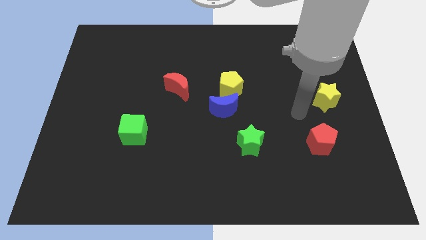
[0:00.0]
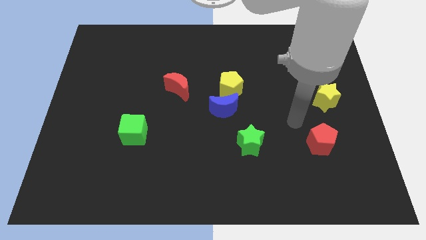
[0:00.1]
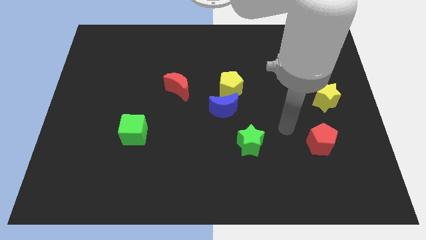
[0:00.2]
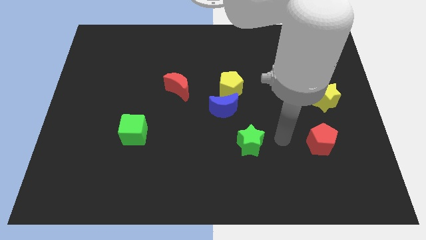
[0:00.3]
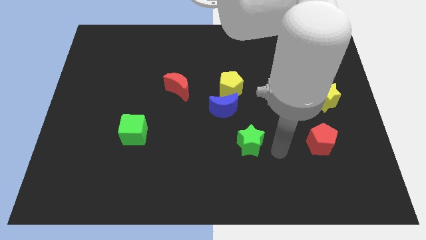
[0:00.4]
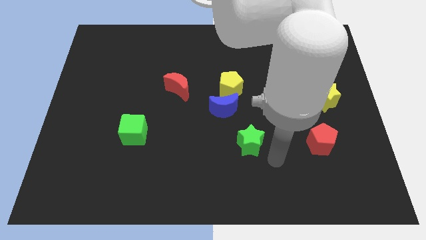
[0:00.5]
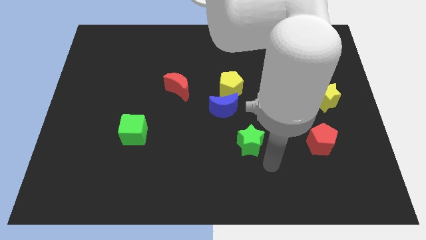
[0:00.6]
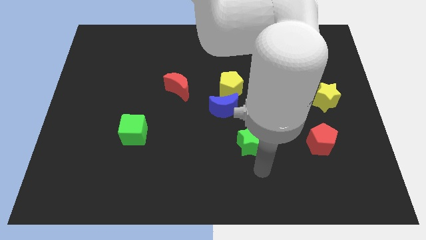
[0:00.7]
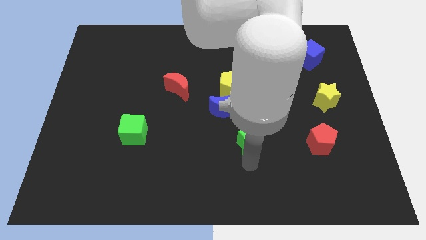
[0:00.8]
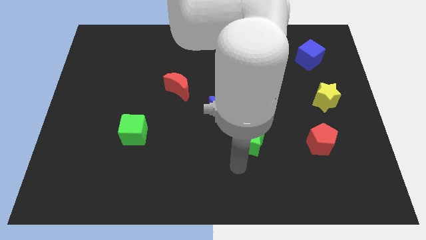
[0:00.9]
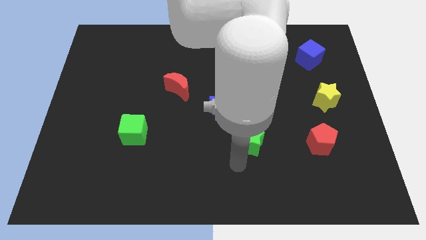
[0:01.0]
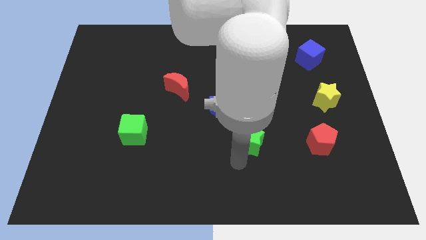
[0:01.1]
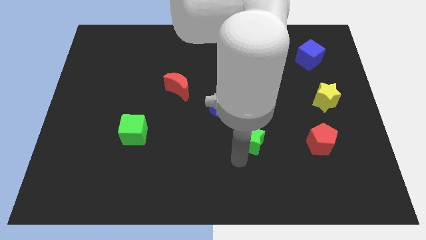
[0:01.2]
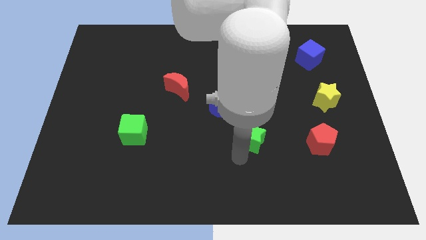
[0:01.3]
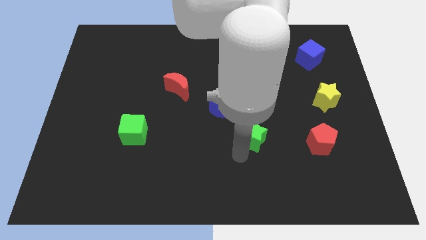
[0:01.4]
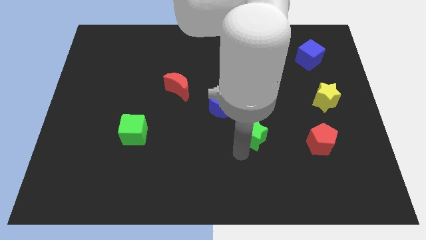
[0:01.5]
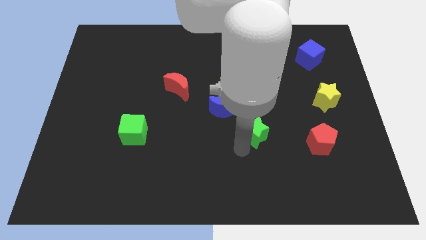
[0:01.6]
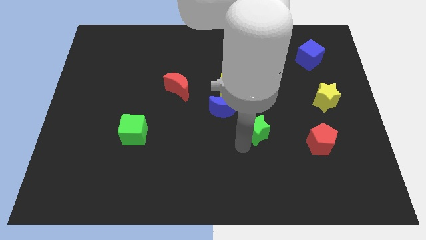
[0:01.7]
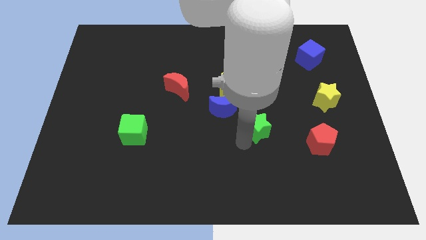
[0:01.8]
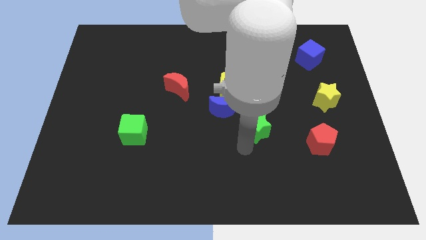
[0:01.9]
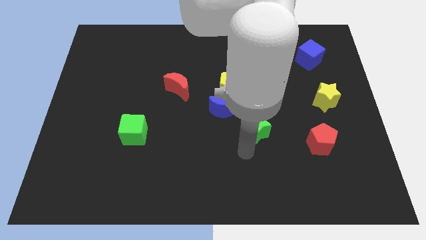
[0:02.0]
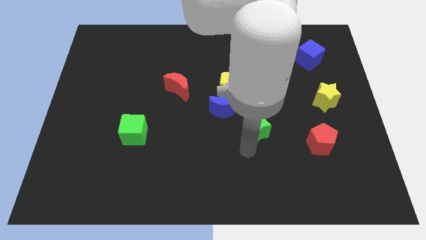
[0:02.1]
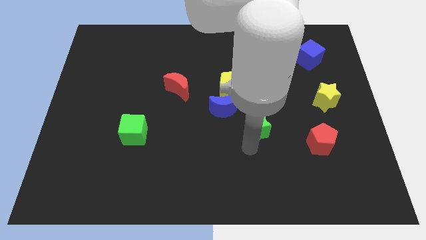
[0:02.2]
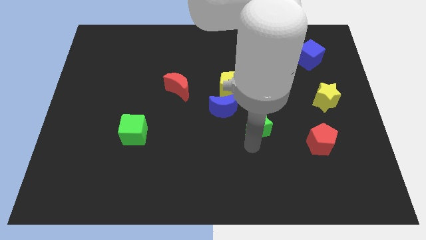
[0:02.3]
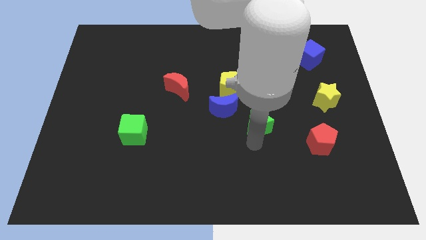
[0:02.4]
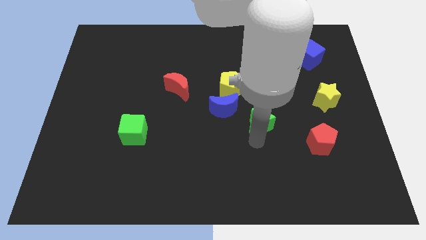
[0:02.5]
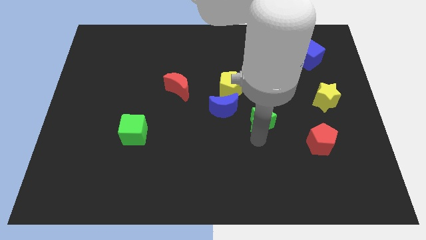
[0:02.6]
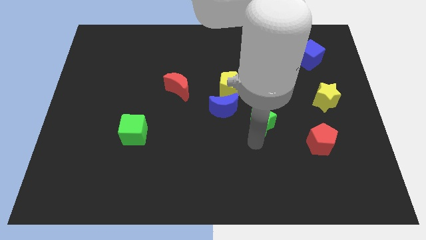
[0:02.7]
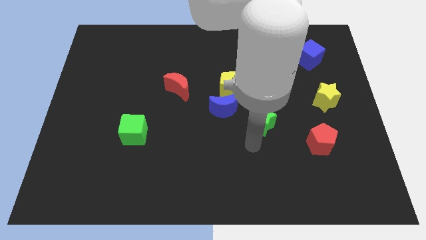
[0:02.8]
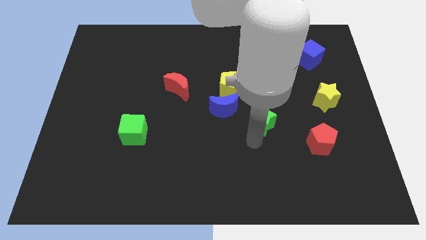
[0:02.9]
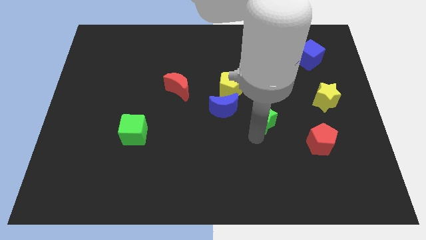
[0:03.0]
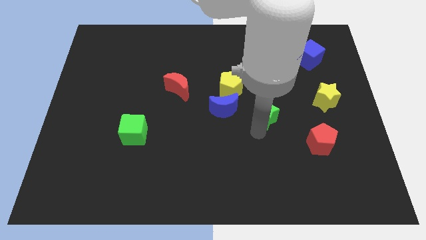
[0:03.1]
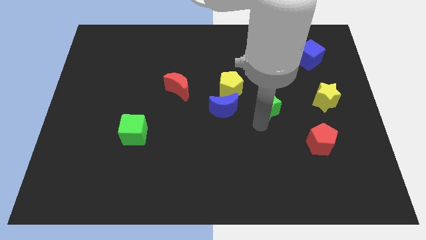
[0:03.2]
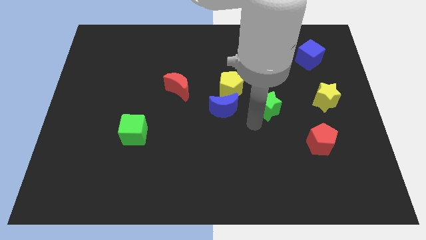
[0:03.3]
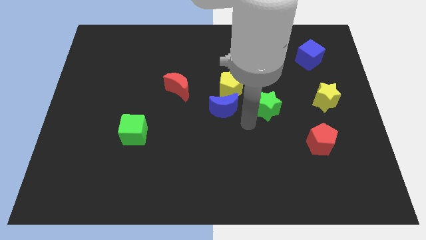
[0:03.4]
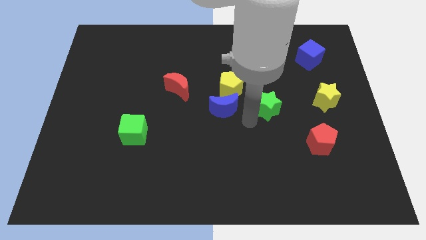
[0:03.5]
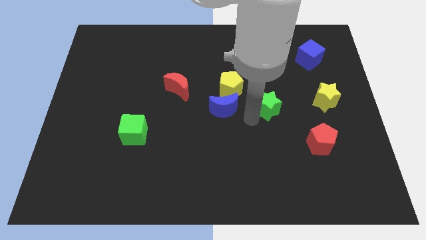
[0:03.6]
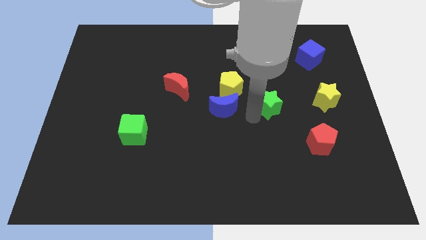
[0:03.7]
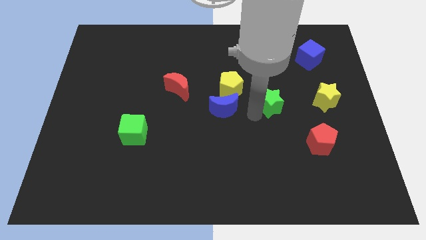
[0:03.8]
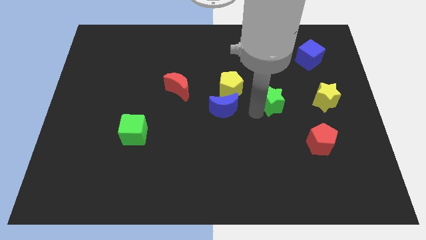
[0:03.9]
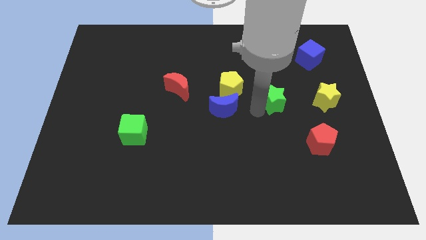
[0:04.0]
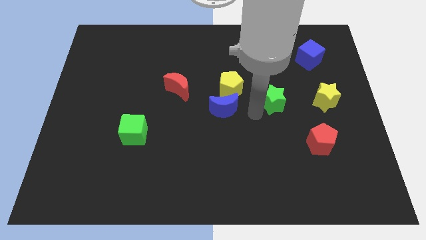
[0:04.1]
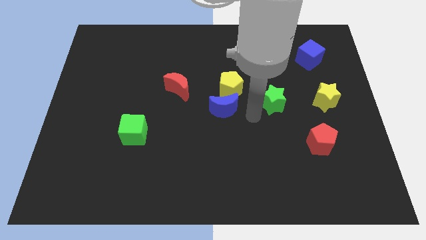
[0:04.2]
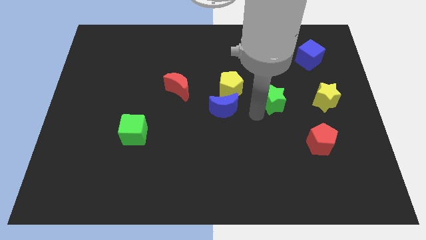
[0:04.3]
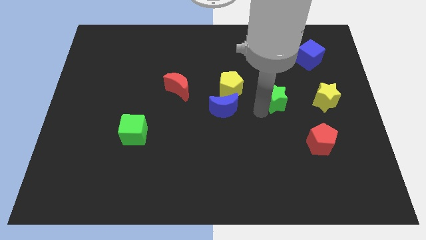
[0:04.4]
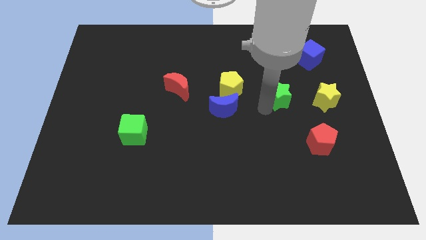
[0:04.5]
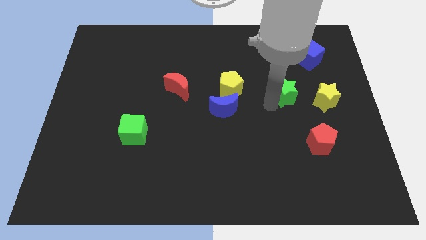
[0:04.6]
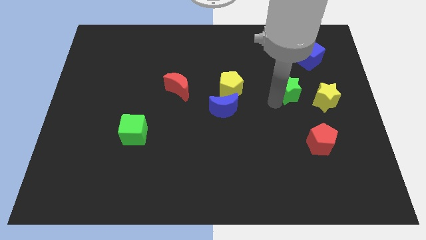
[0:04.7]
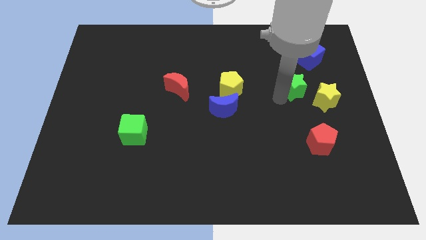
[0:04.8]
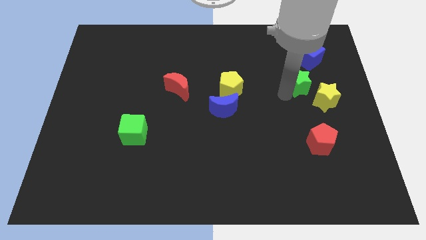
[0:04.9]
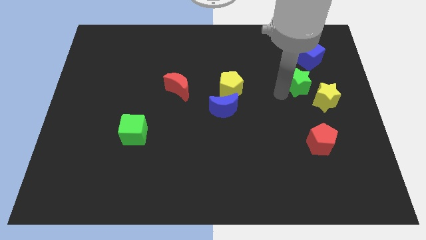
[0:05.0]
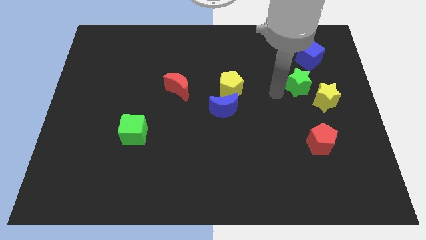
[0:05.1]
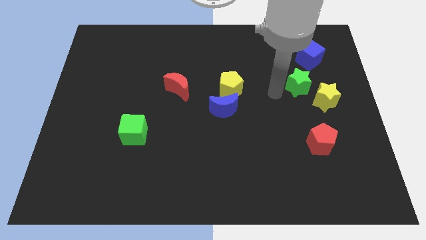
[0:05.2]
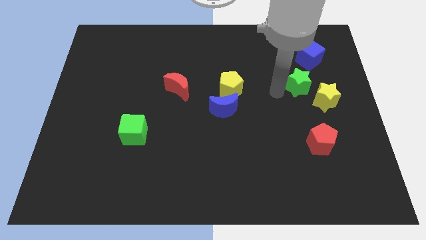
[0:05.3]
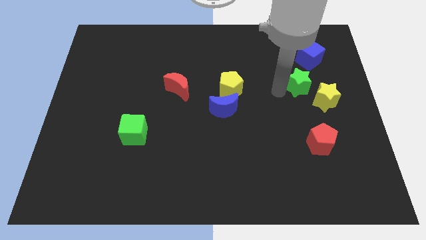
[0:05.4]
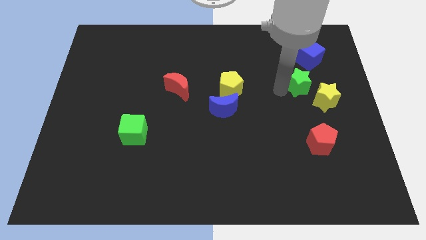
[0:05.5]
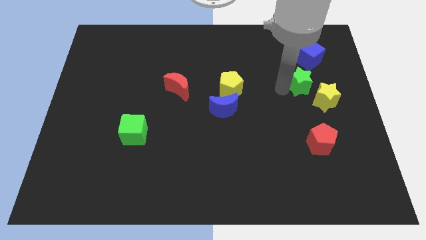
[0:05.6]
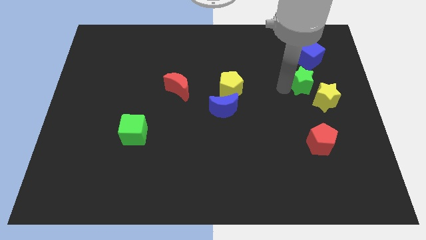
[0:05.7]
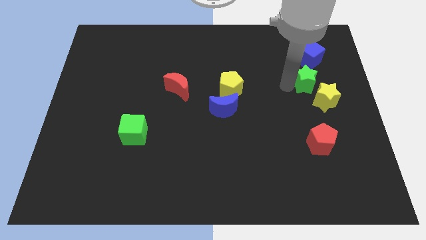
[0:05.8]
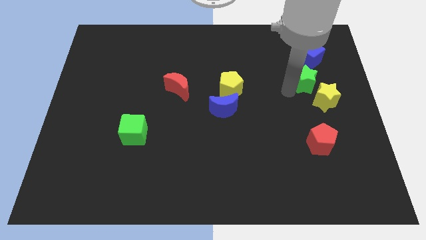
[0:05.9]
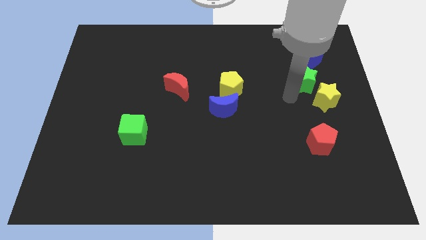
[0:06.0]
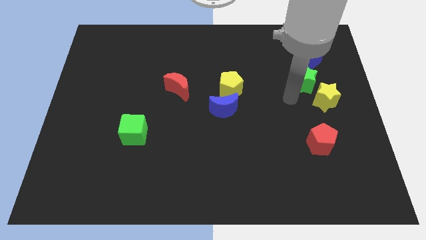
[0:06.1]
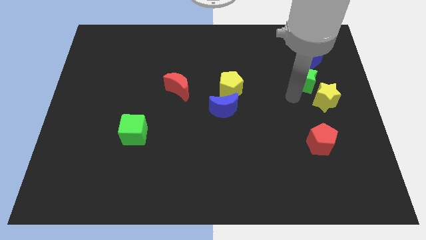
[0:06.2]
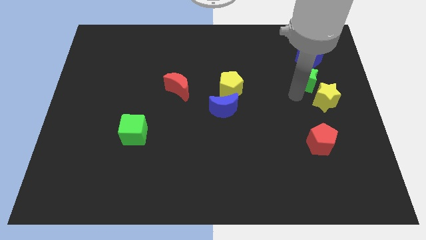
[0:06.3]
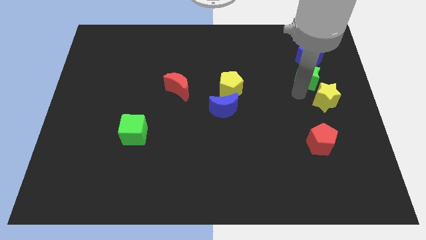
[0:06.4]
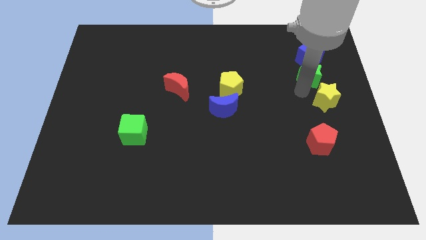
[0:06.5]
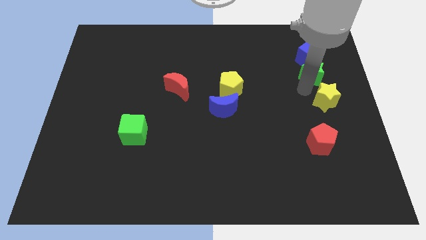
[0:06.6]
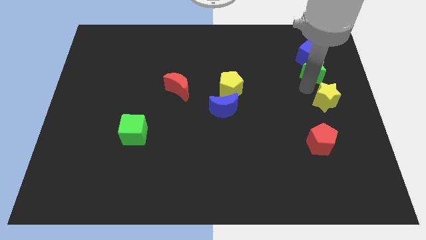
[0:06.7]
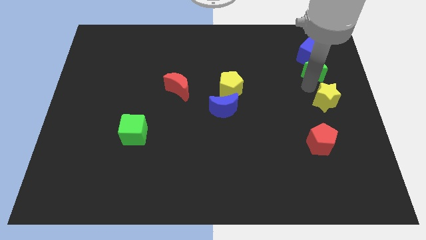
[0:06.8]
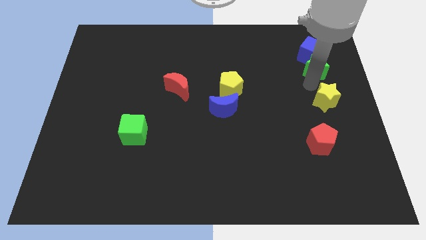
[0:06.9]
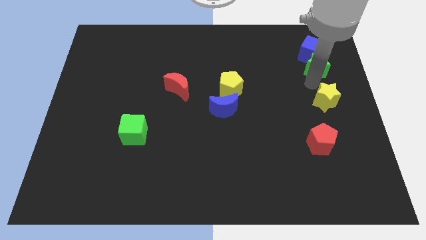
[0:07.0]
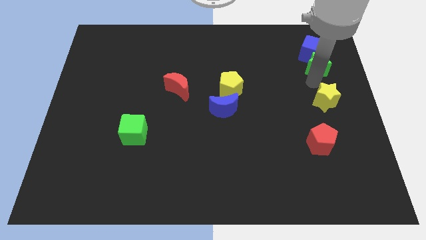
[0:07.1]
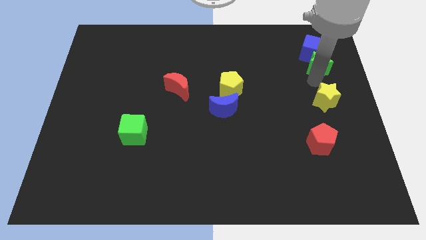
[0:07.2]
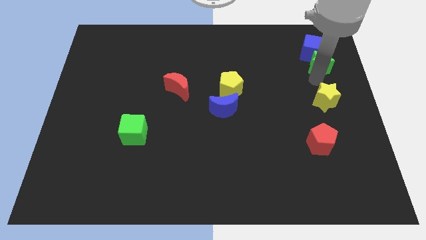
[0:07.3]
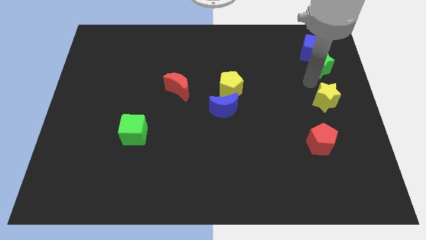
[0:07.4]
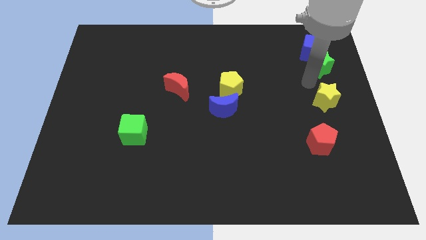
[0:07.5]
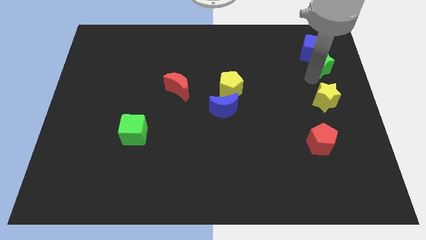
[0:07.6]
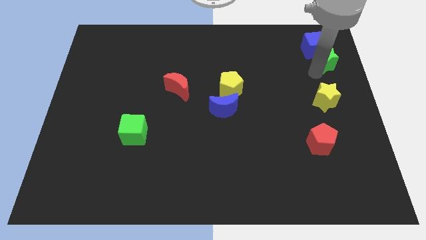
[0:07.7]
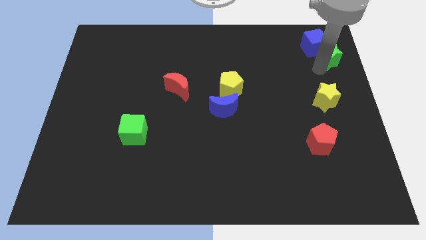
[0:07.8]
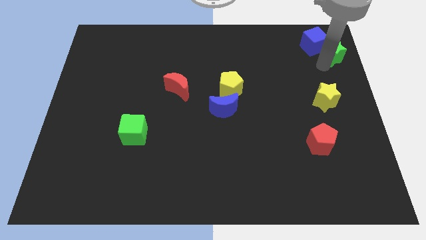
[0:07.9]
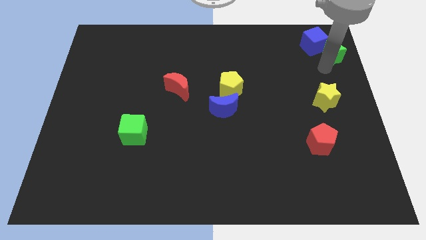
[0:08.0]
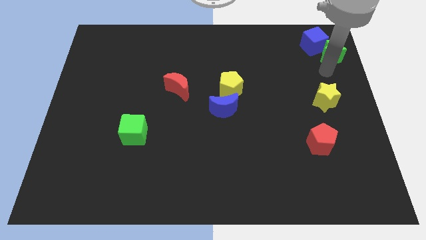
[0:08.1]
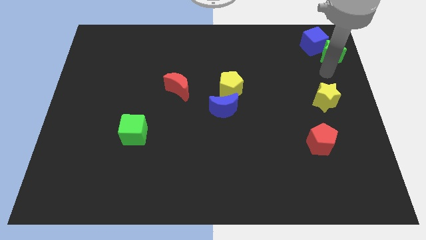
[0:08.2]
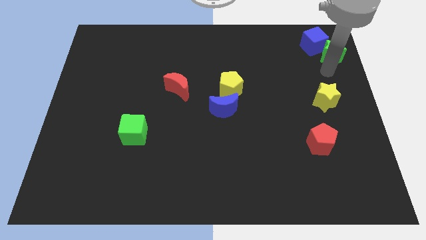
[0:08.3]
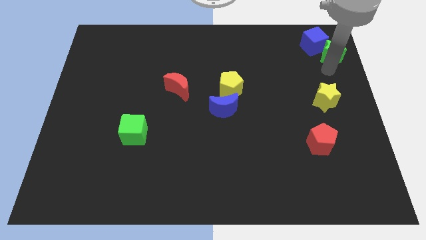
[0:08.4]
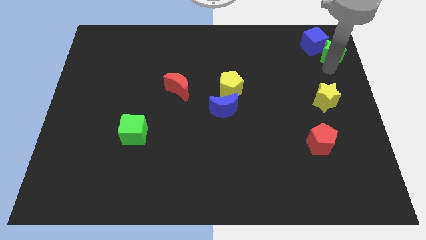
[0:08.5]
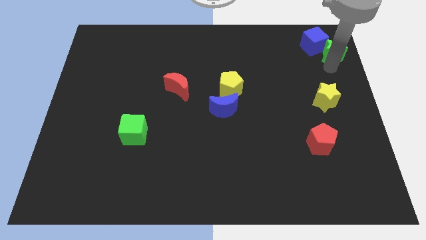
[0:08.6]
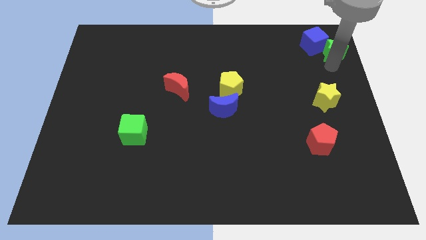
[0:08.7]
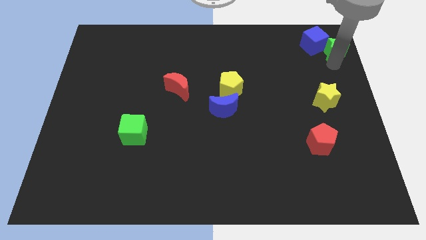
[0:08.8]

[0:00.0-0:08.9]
move the green star to the top right of the board
